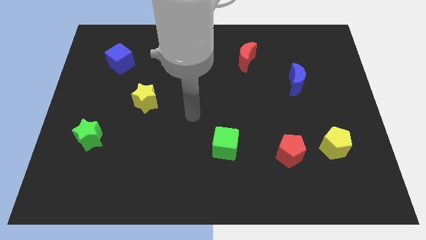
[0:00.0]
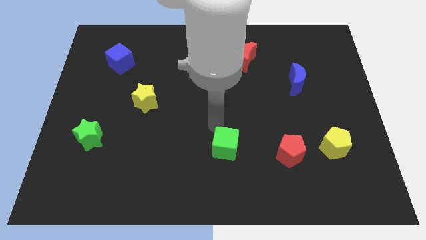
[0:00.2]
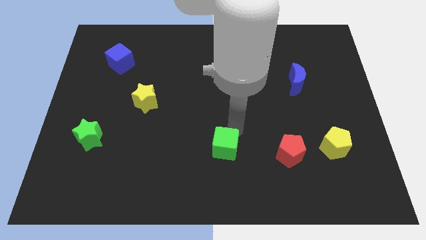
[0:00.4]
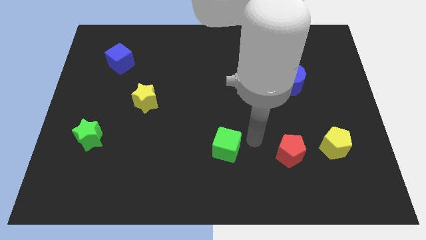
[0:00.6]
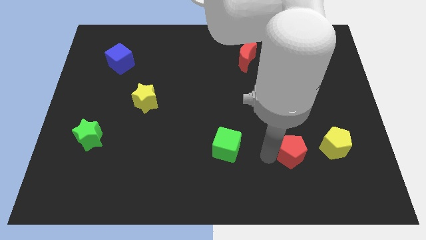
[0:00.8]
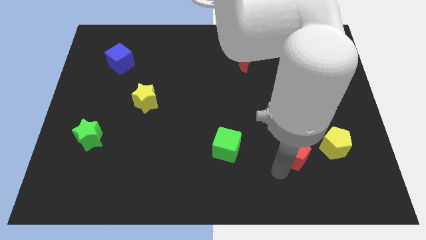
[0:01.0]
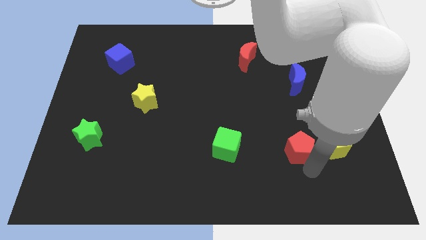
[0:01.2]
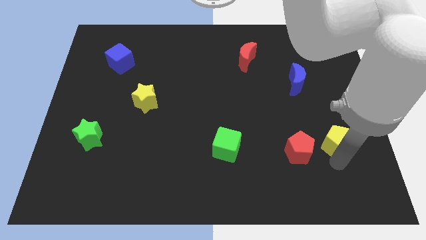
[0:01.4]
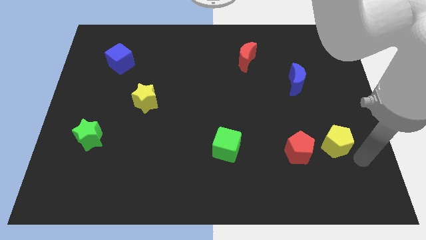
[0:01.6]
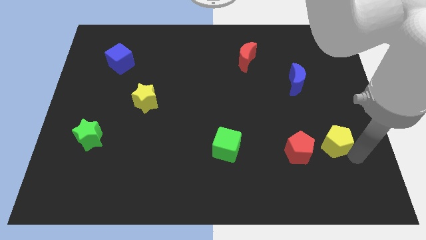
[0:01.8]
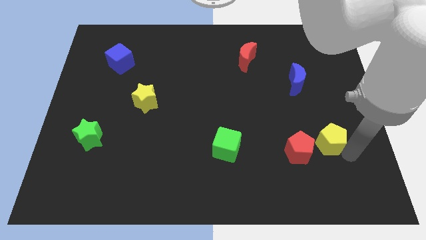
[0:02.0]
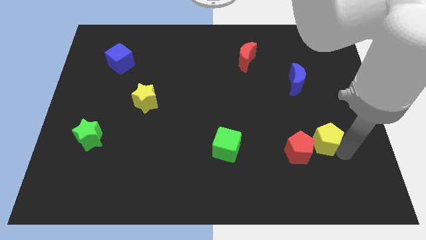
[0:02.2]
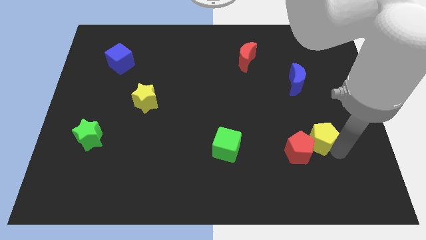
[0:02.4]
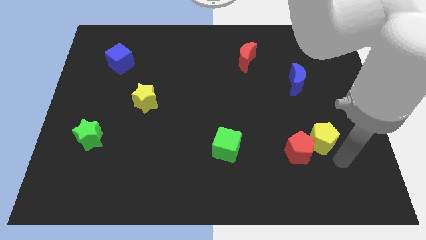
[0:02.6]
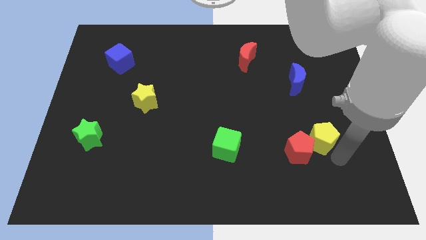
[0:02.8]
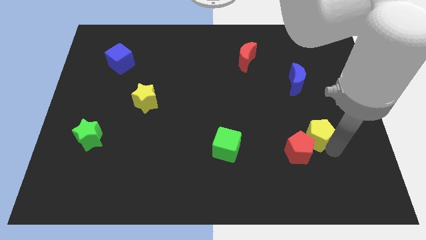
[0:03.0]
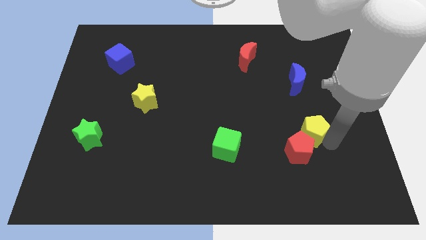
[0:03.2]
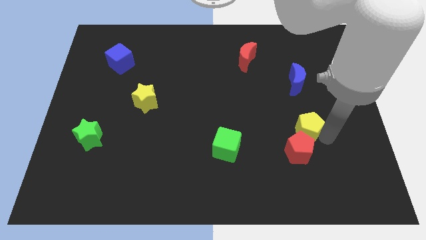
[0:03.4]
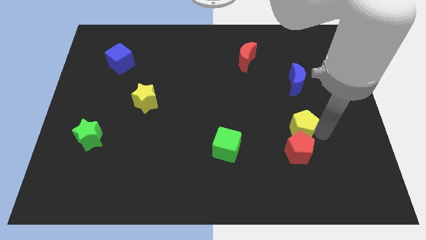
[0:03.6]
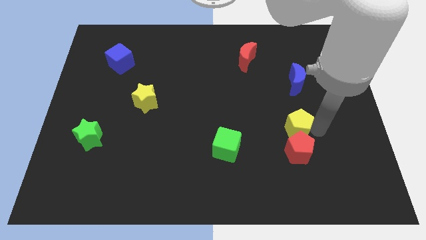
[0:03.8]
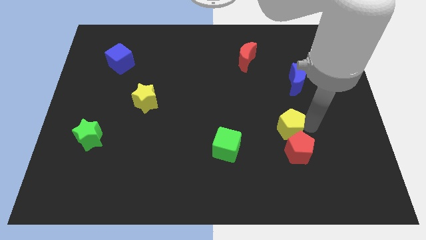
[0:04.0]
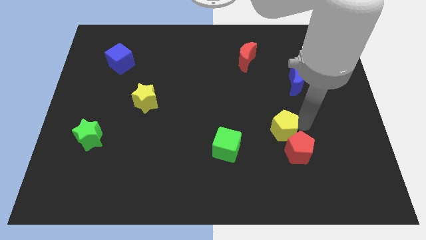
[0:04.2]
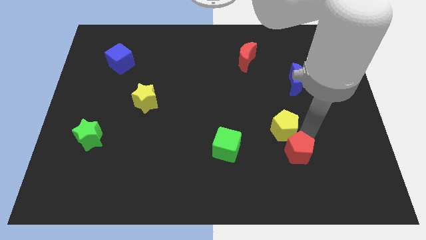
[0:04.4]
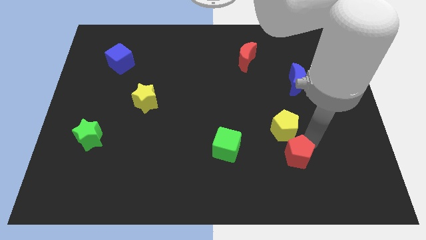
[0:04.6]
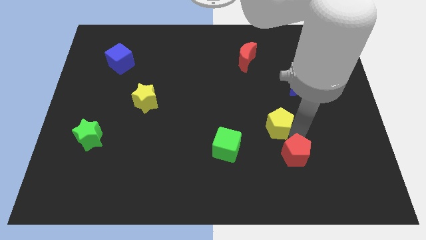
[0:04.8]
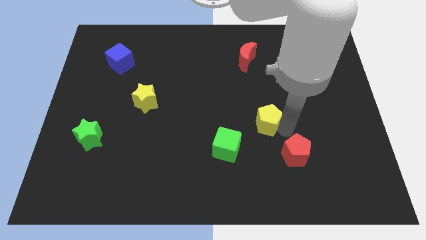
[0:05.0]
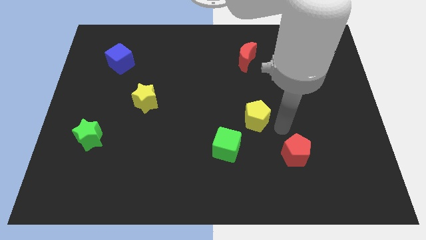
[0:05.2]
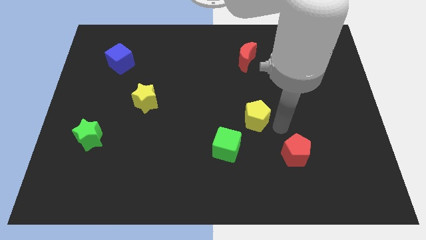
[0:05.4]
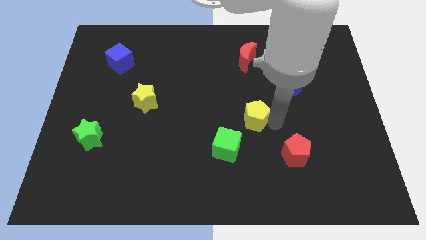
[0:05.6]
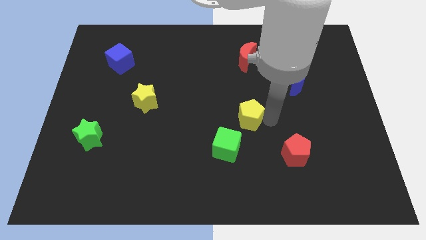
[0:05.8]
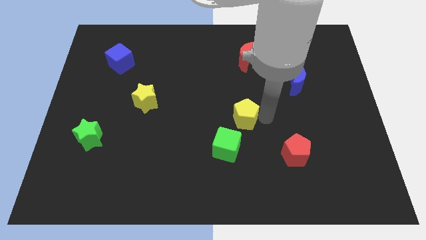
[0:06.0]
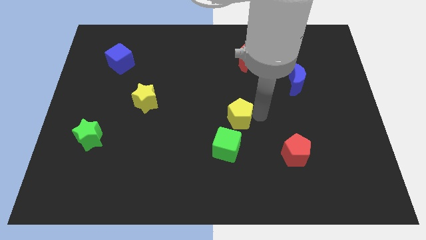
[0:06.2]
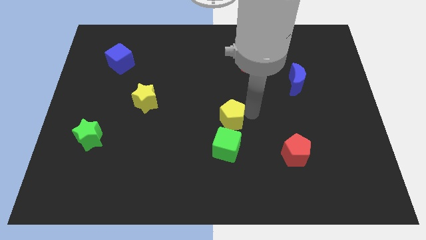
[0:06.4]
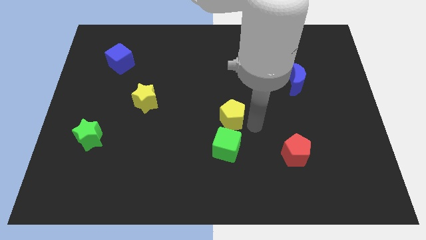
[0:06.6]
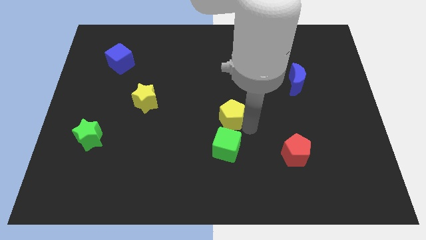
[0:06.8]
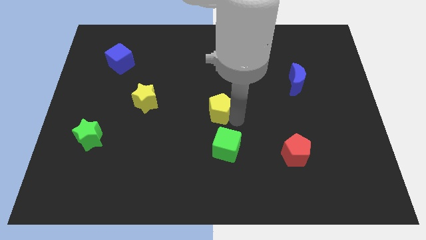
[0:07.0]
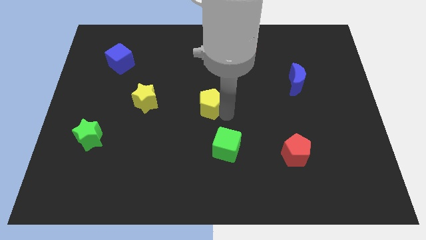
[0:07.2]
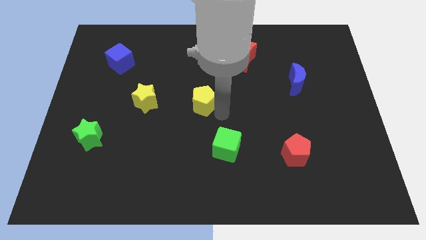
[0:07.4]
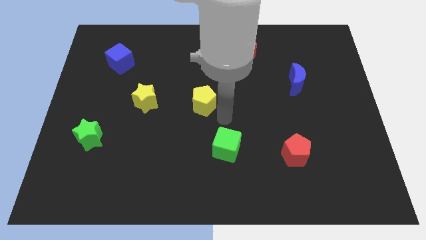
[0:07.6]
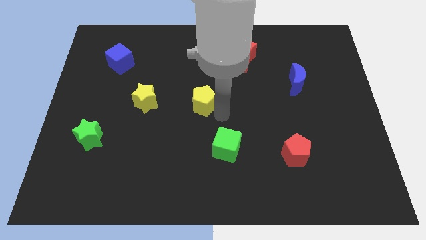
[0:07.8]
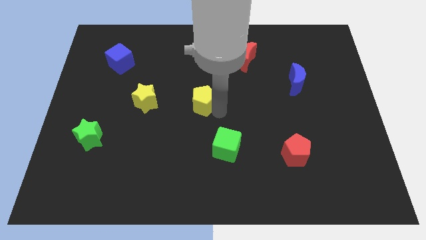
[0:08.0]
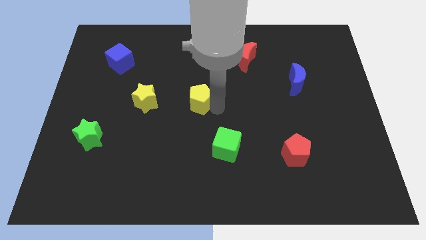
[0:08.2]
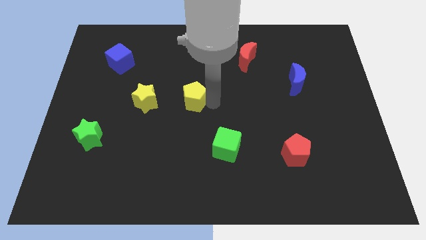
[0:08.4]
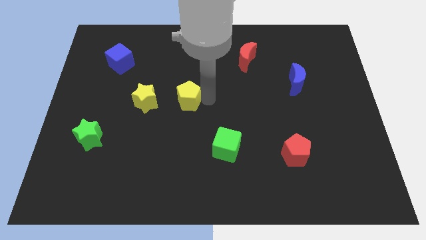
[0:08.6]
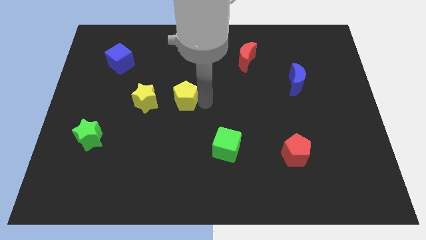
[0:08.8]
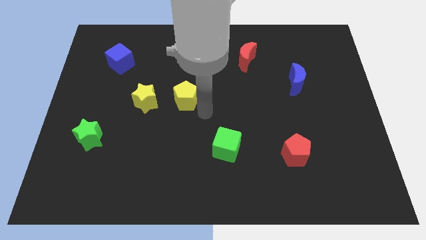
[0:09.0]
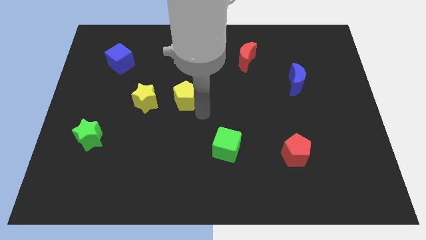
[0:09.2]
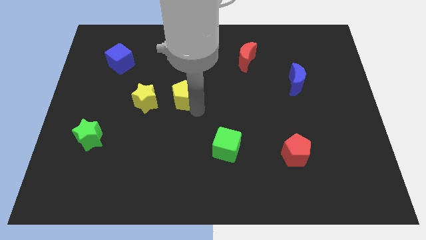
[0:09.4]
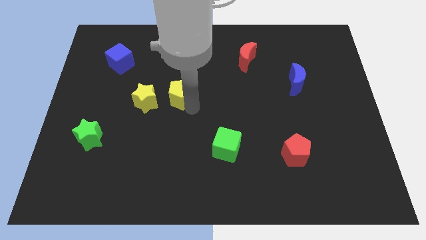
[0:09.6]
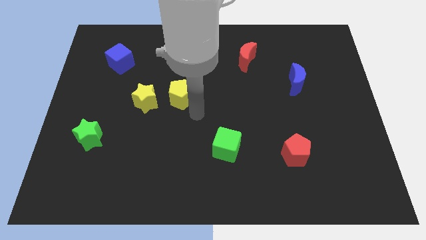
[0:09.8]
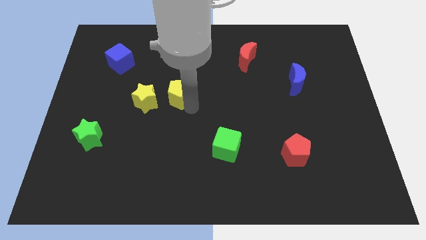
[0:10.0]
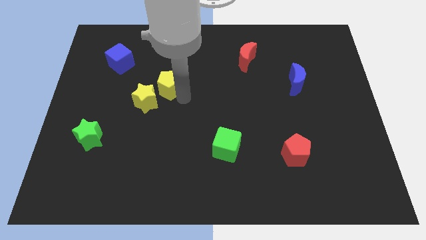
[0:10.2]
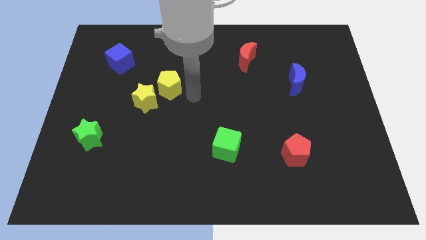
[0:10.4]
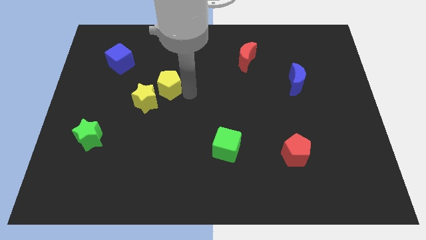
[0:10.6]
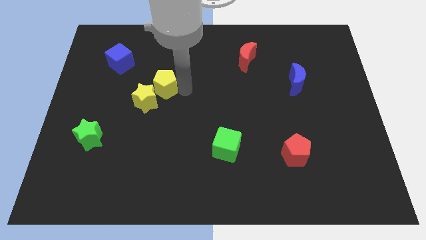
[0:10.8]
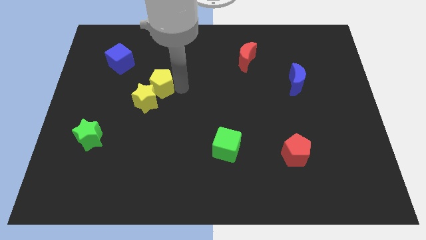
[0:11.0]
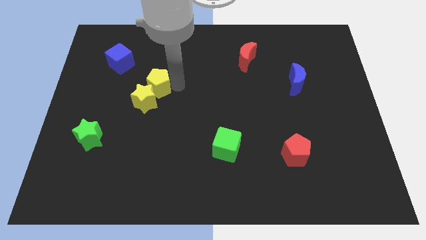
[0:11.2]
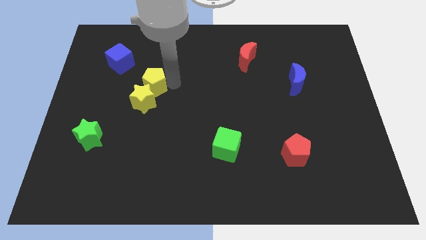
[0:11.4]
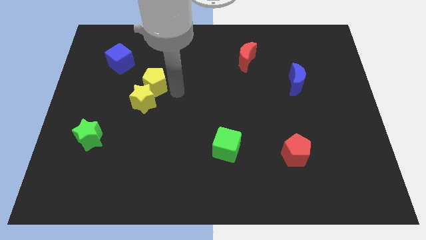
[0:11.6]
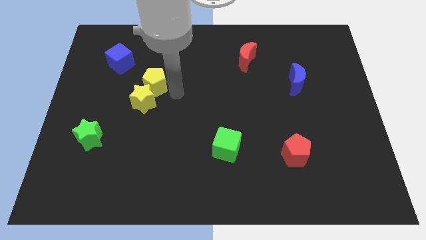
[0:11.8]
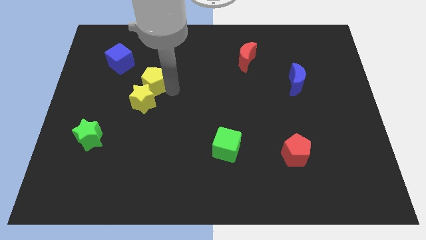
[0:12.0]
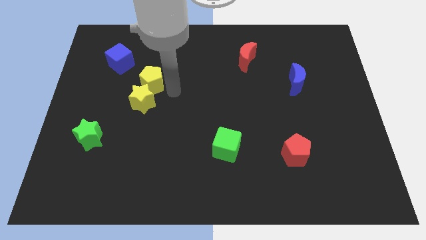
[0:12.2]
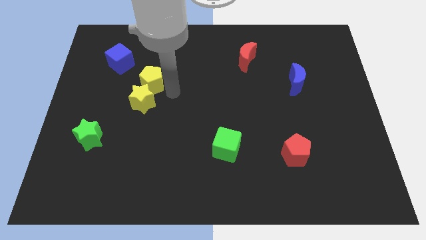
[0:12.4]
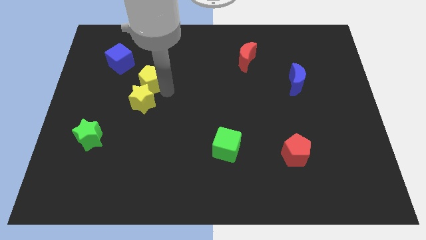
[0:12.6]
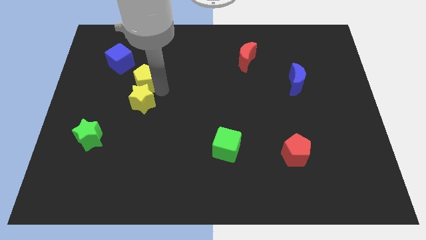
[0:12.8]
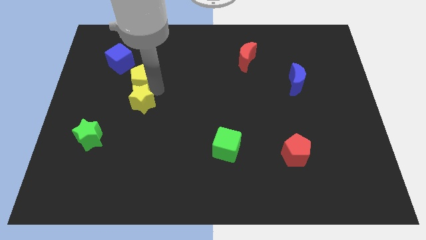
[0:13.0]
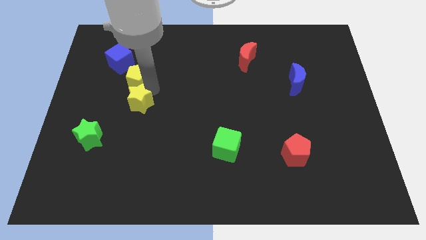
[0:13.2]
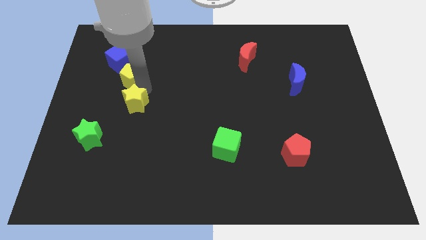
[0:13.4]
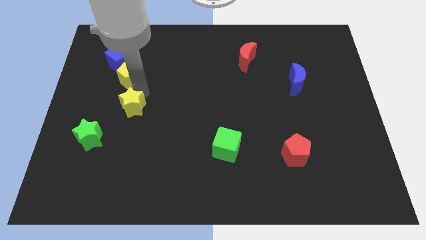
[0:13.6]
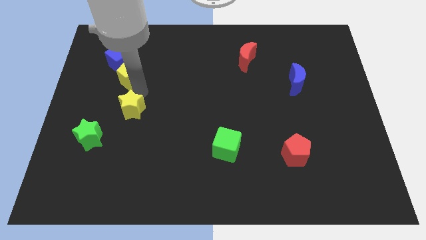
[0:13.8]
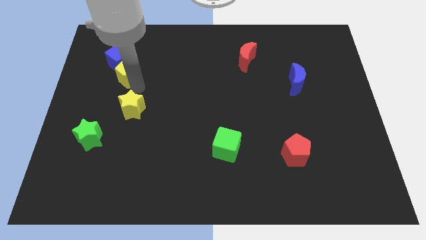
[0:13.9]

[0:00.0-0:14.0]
move the yellow pentagon close to the blue cube
